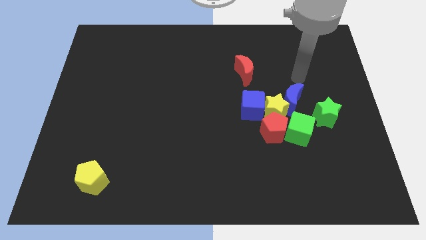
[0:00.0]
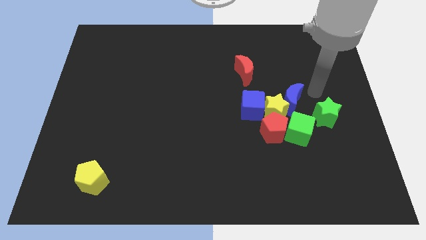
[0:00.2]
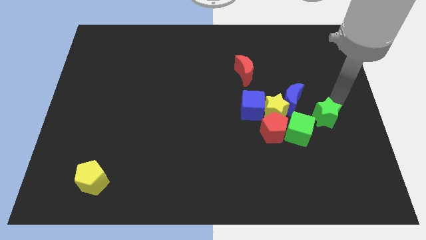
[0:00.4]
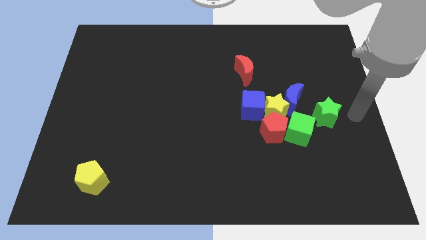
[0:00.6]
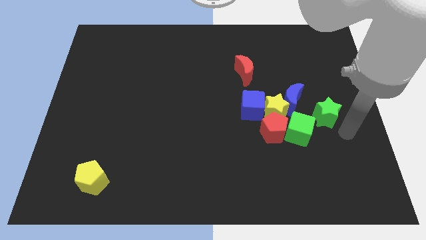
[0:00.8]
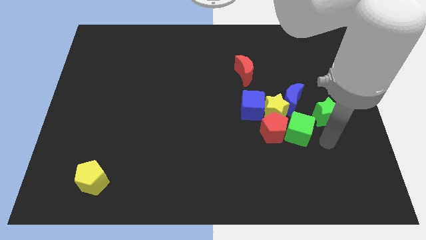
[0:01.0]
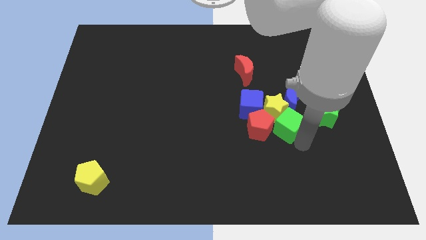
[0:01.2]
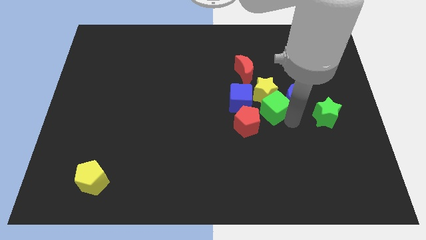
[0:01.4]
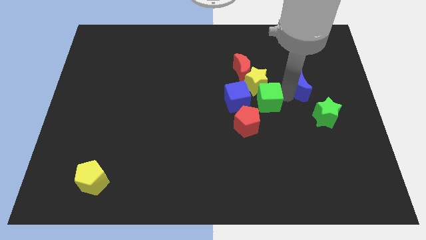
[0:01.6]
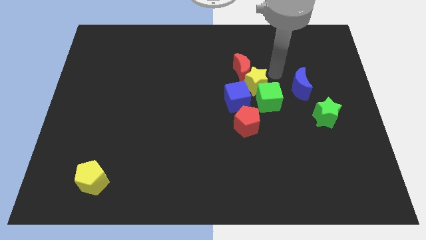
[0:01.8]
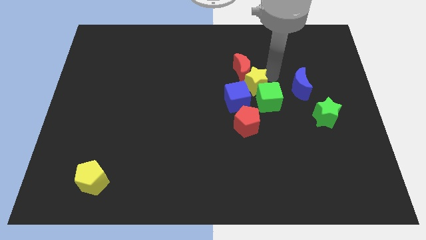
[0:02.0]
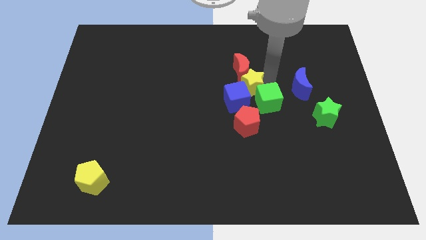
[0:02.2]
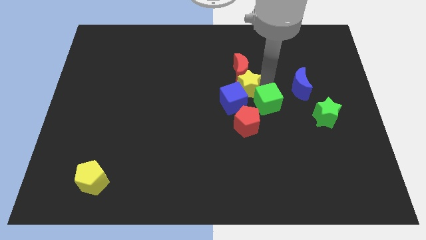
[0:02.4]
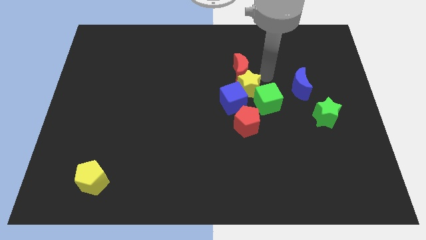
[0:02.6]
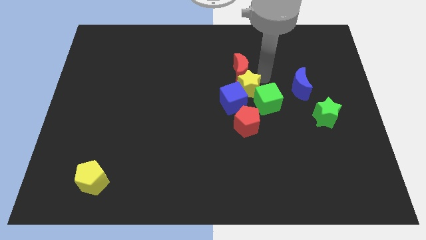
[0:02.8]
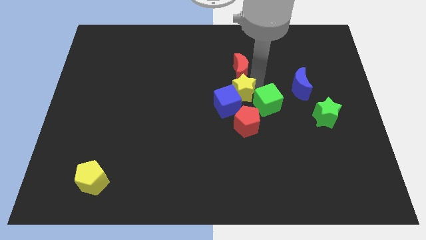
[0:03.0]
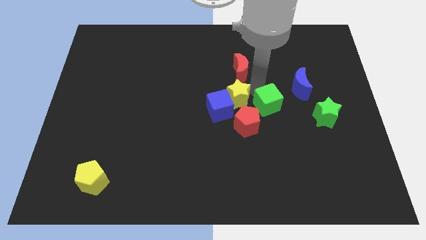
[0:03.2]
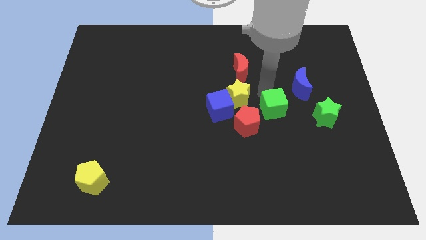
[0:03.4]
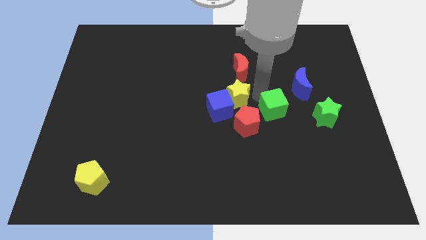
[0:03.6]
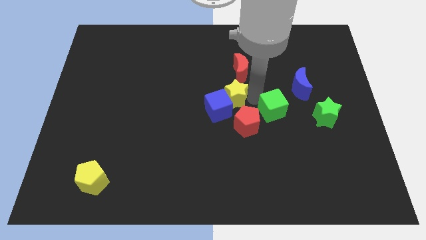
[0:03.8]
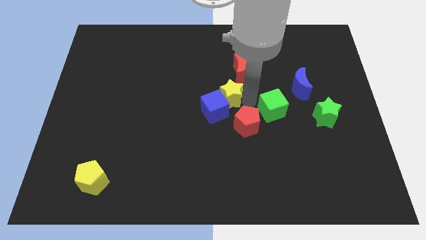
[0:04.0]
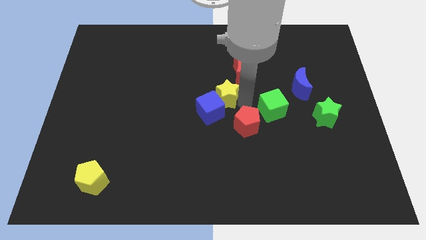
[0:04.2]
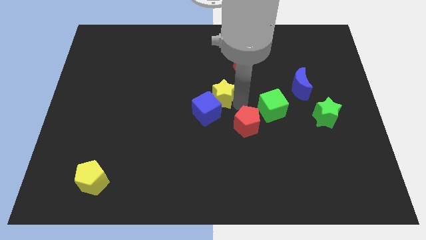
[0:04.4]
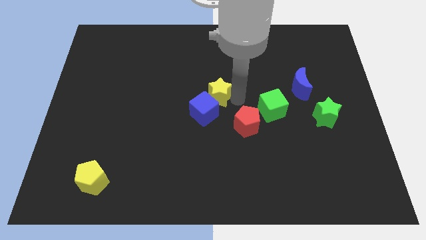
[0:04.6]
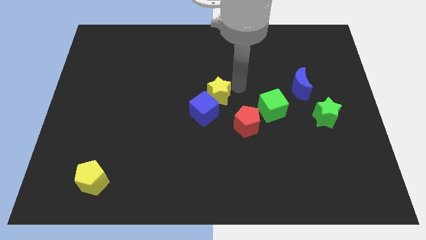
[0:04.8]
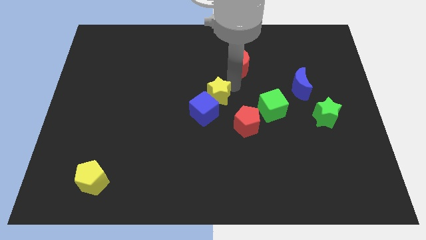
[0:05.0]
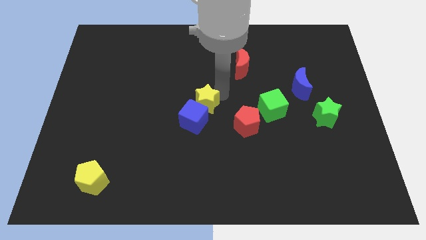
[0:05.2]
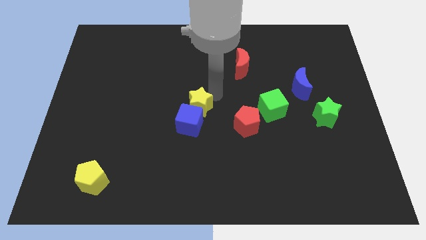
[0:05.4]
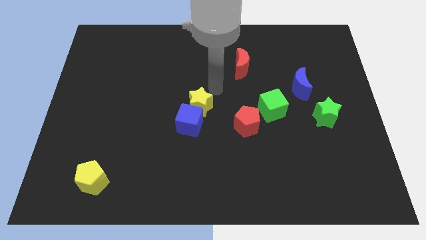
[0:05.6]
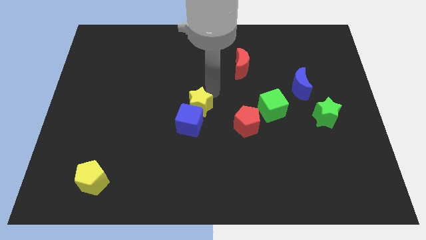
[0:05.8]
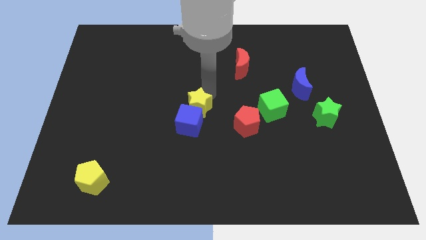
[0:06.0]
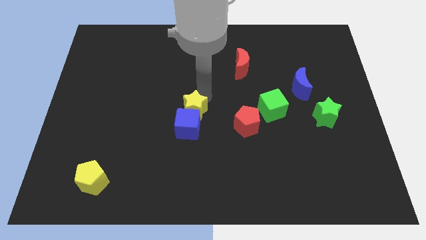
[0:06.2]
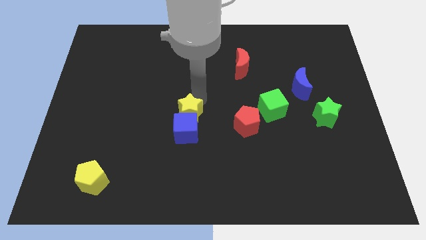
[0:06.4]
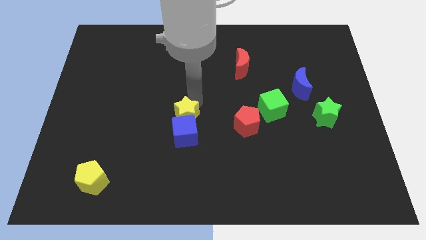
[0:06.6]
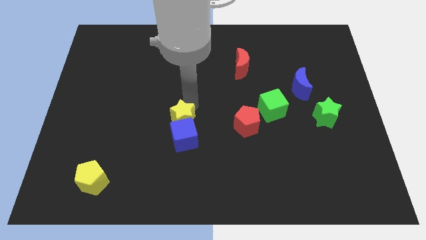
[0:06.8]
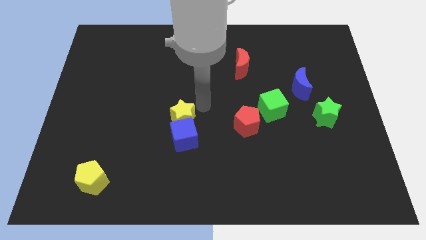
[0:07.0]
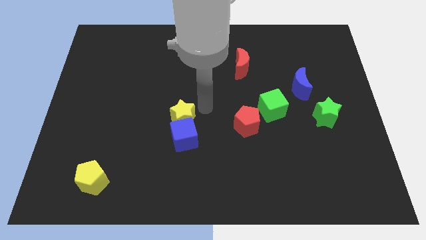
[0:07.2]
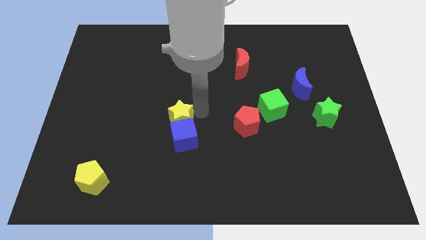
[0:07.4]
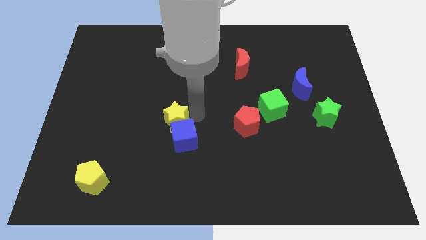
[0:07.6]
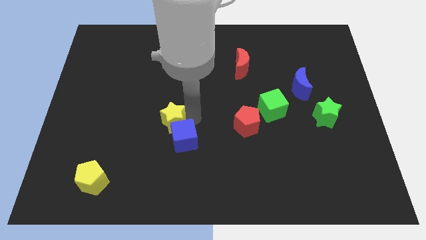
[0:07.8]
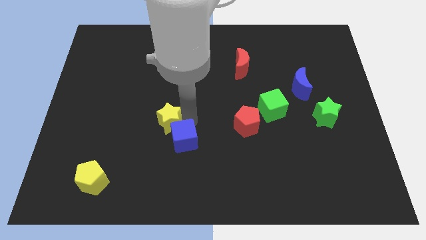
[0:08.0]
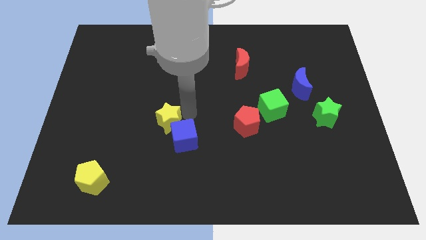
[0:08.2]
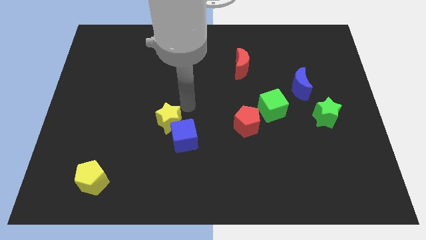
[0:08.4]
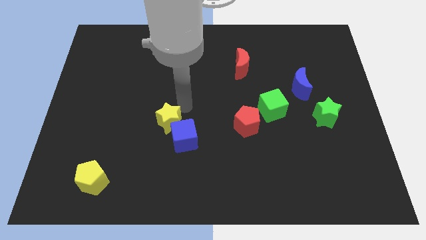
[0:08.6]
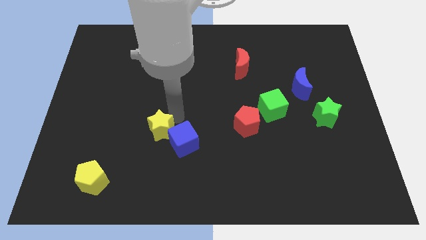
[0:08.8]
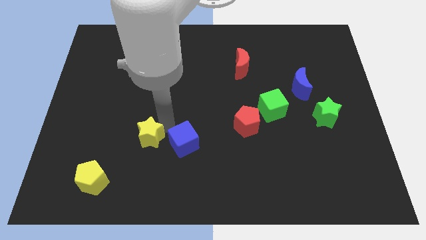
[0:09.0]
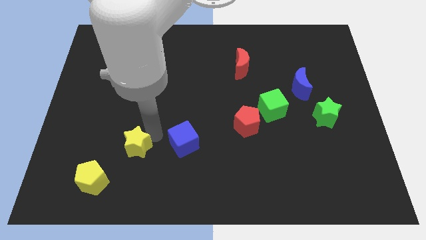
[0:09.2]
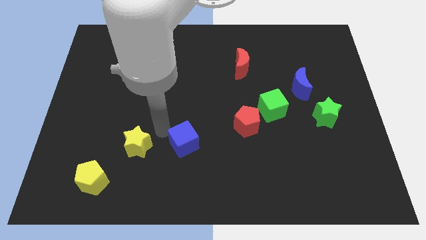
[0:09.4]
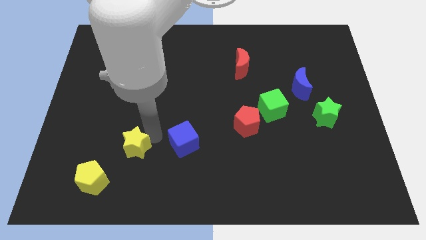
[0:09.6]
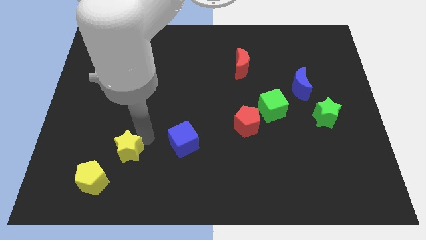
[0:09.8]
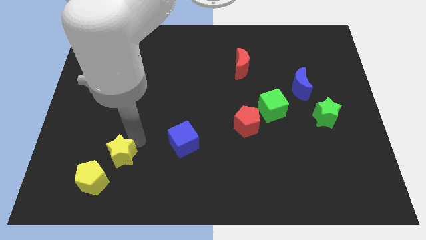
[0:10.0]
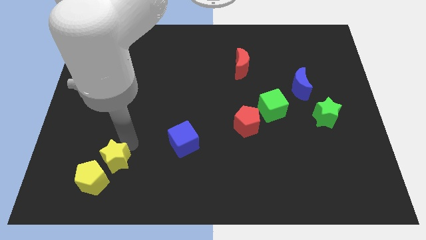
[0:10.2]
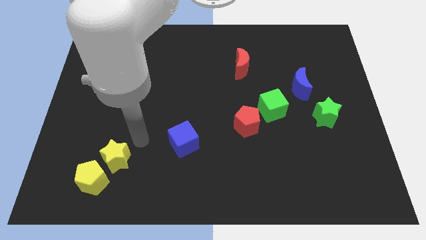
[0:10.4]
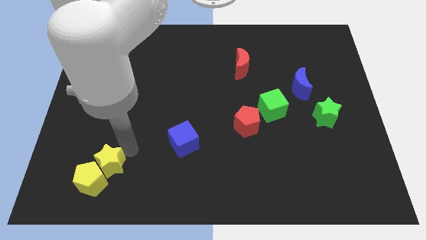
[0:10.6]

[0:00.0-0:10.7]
slide the yellow star to the yellow pentagon
